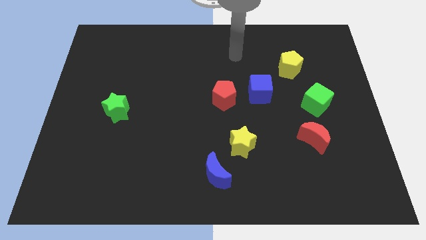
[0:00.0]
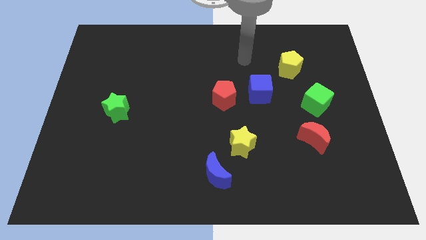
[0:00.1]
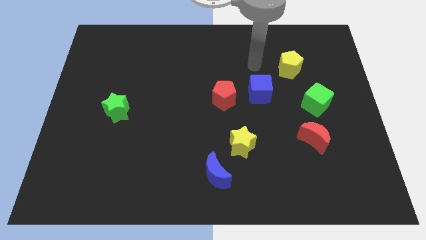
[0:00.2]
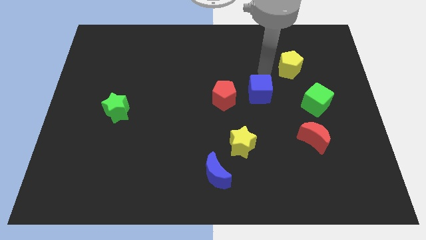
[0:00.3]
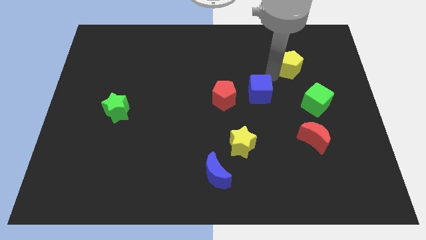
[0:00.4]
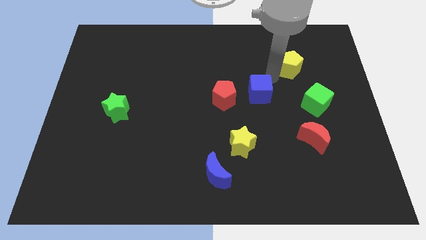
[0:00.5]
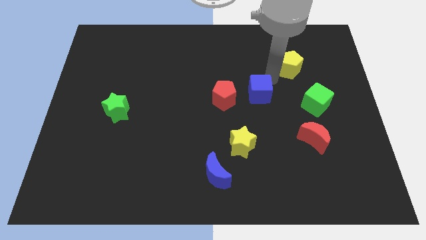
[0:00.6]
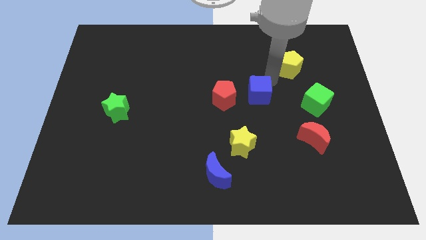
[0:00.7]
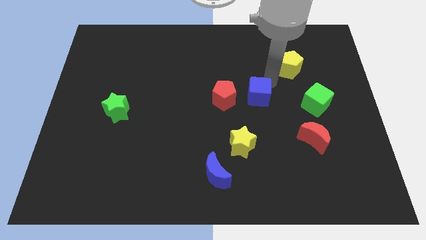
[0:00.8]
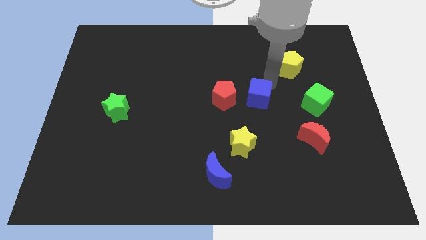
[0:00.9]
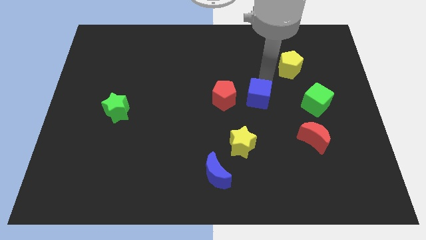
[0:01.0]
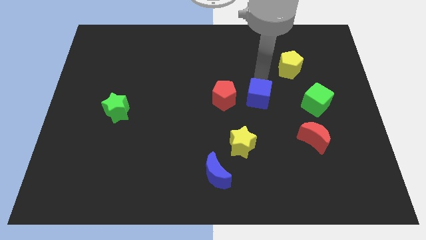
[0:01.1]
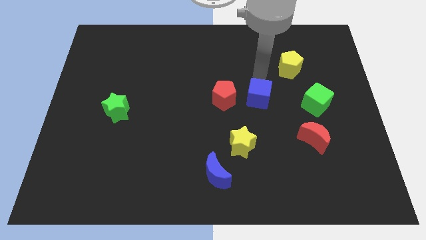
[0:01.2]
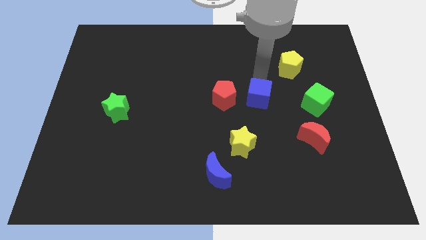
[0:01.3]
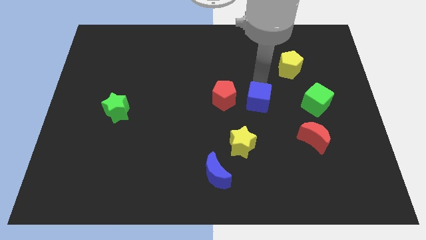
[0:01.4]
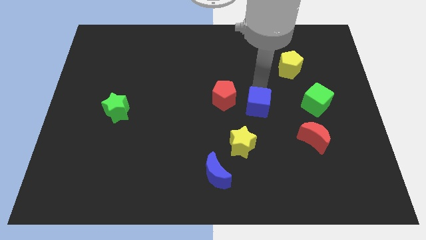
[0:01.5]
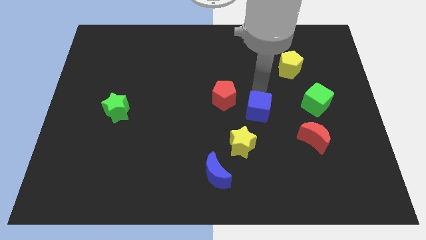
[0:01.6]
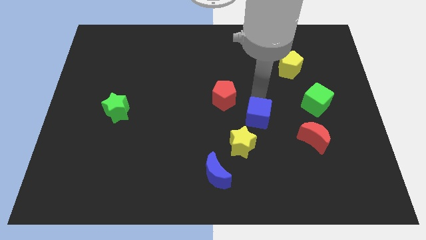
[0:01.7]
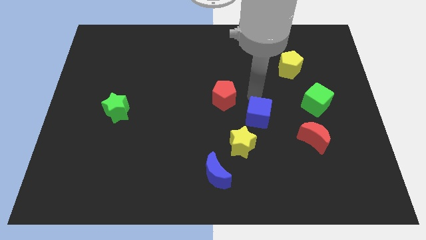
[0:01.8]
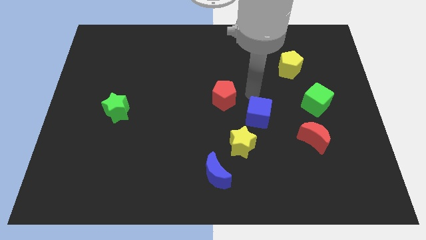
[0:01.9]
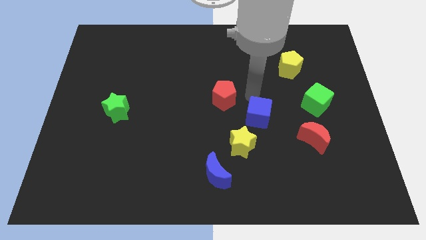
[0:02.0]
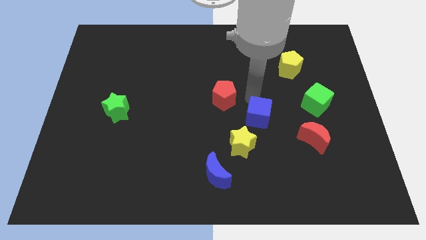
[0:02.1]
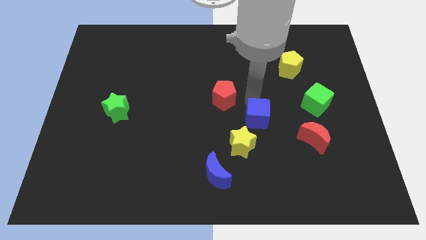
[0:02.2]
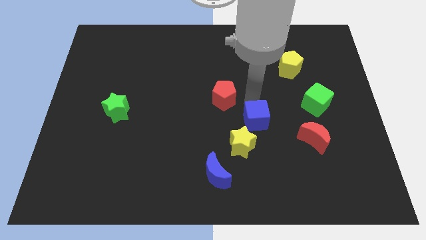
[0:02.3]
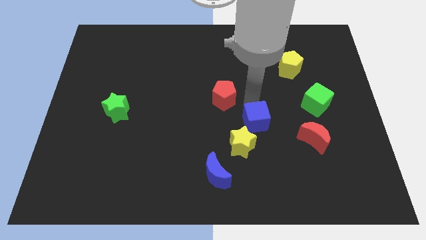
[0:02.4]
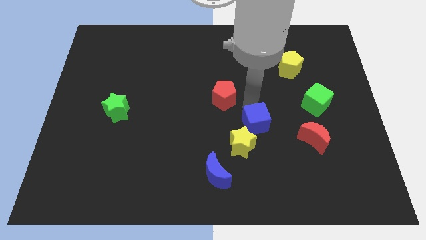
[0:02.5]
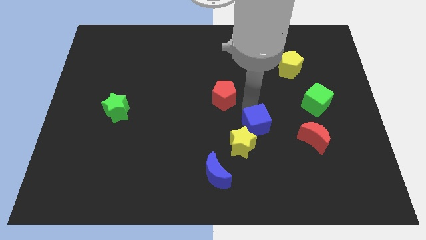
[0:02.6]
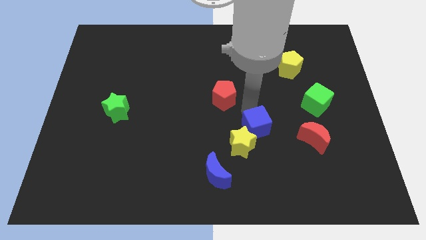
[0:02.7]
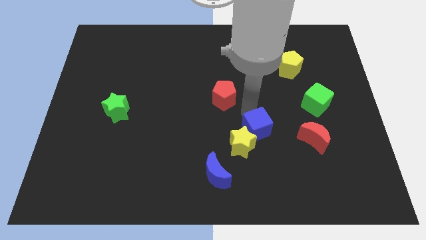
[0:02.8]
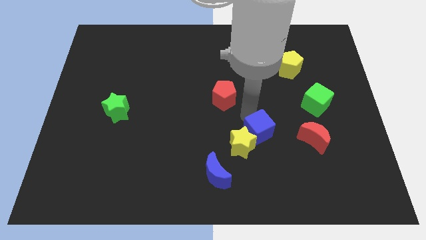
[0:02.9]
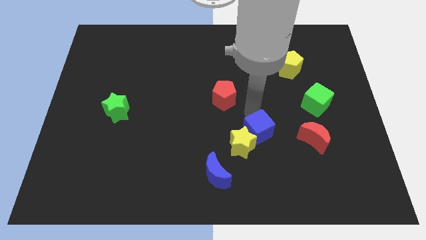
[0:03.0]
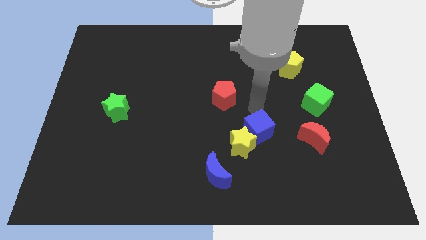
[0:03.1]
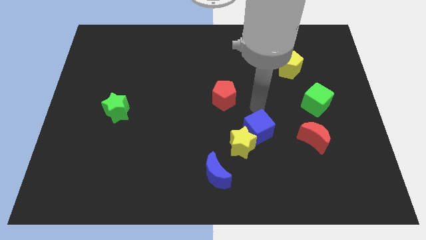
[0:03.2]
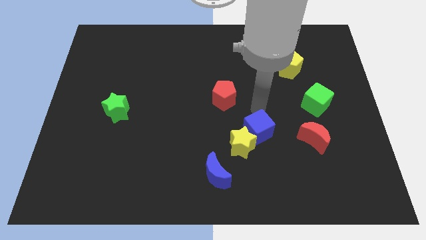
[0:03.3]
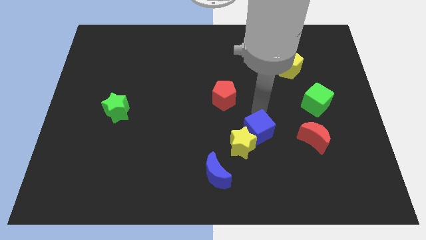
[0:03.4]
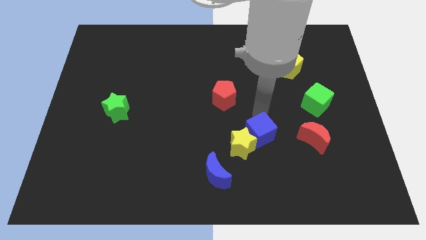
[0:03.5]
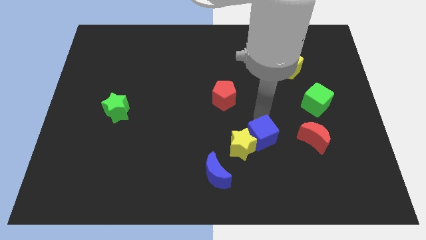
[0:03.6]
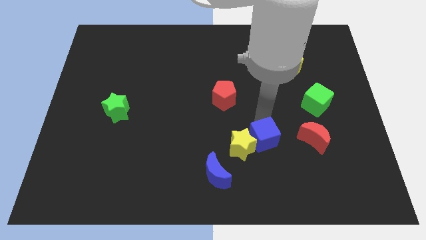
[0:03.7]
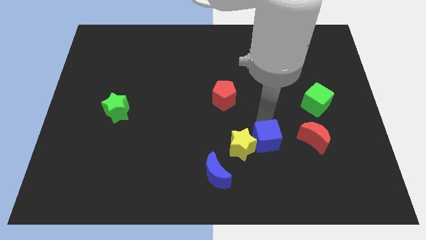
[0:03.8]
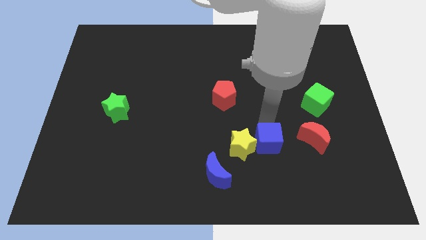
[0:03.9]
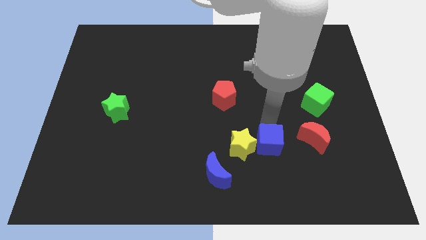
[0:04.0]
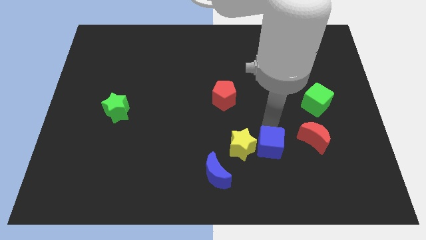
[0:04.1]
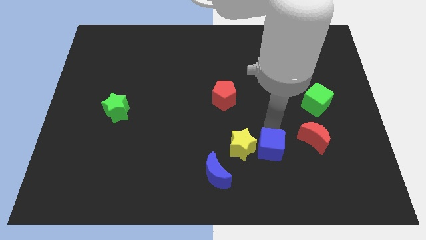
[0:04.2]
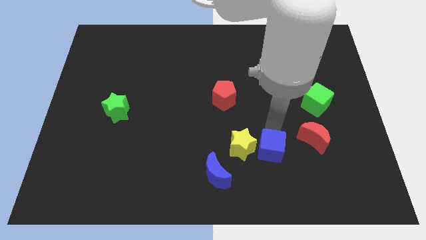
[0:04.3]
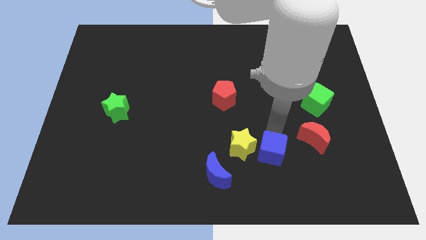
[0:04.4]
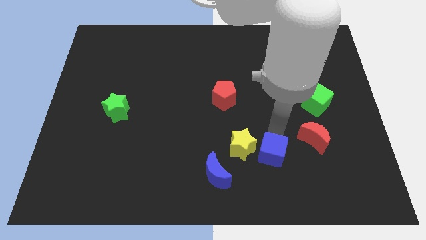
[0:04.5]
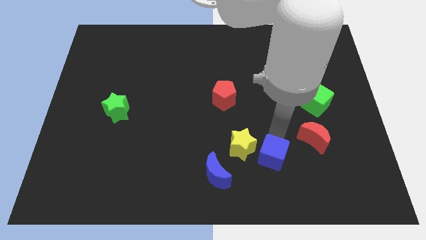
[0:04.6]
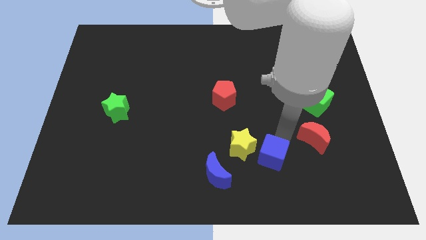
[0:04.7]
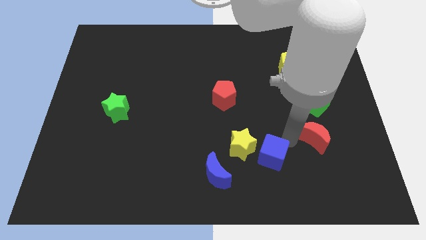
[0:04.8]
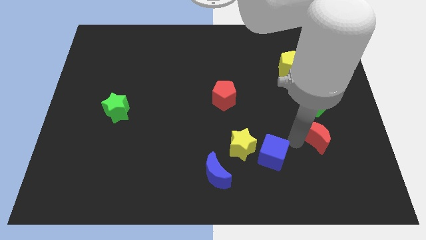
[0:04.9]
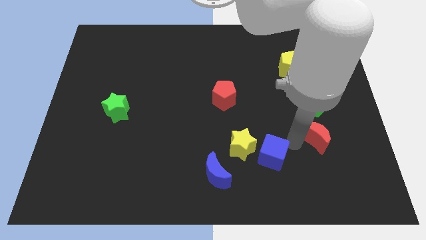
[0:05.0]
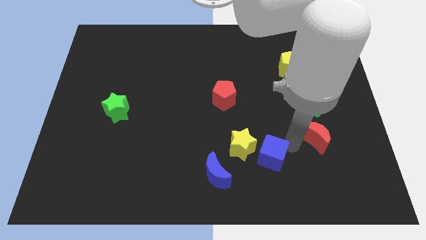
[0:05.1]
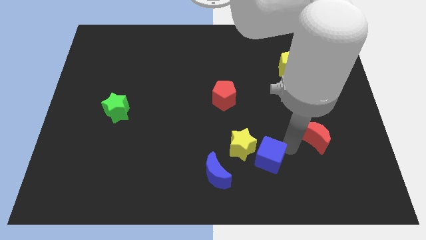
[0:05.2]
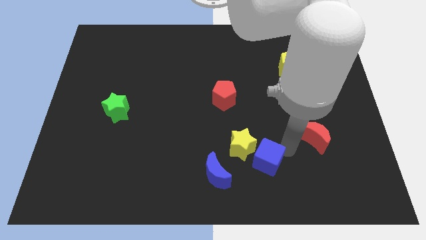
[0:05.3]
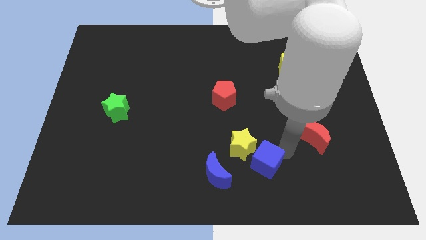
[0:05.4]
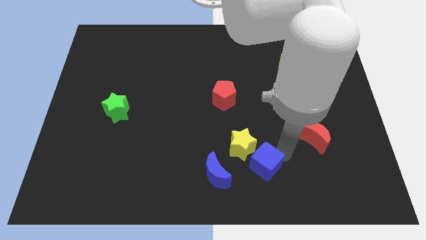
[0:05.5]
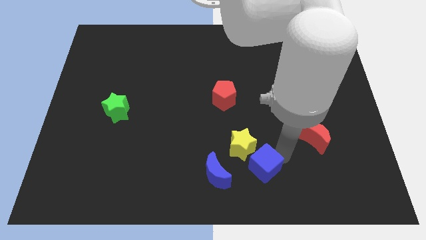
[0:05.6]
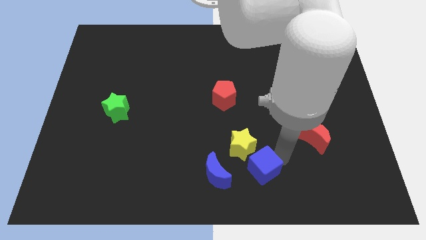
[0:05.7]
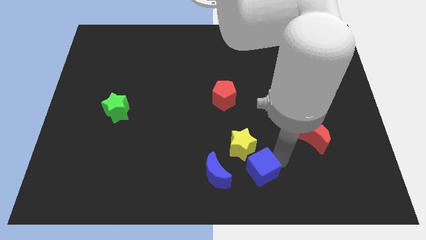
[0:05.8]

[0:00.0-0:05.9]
put the blue cube to the bottom side

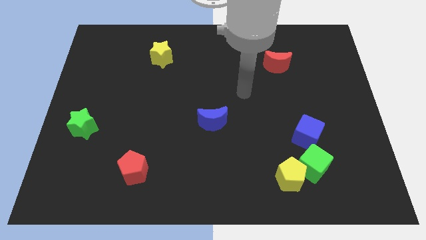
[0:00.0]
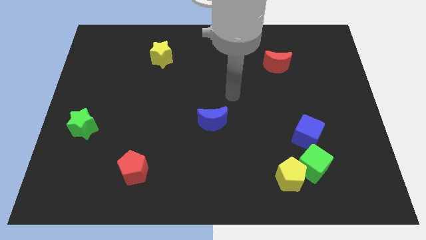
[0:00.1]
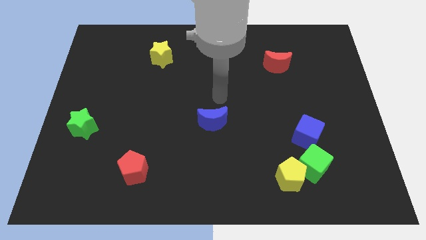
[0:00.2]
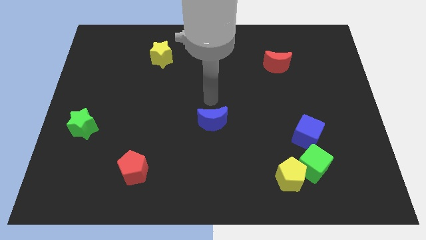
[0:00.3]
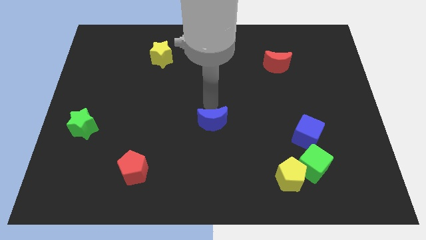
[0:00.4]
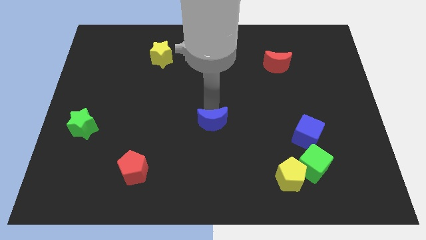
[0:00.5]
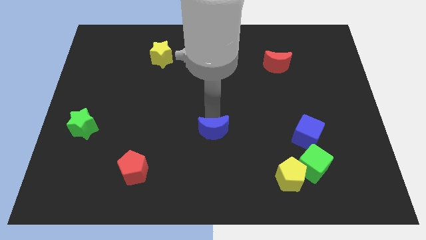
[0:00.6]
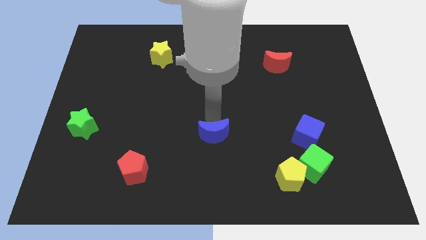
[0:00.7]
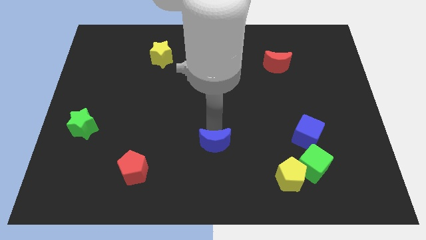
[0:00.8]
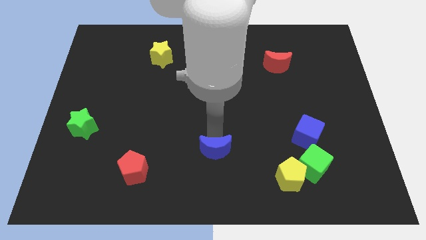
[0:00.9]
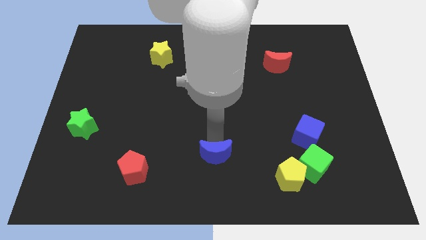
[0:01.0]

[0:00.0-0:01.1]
move the blue moon to the bottom side

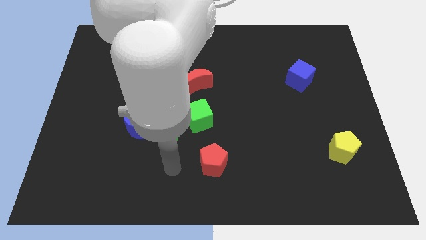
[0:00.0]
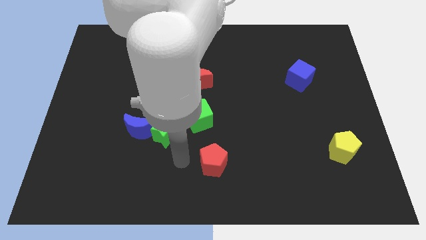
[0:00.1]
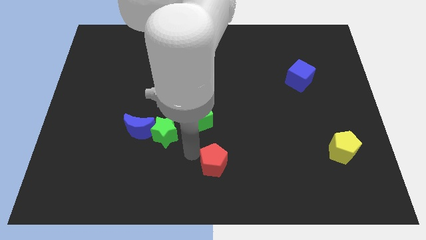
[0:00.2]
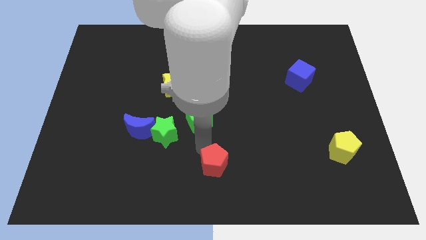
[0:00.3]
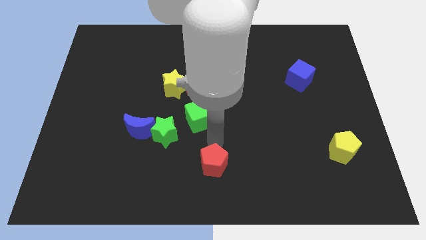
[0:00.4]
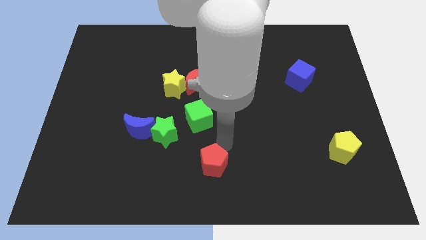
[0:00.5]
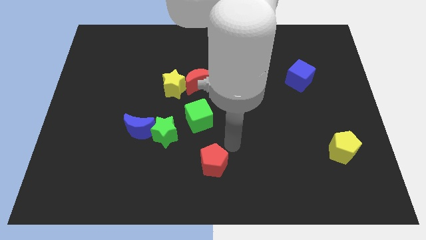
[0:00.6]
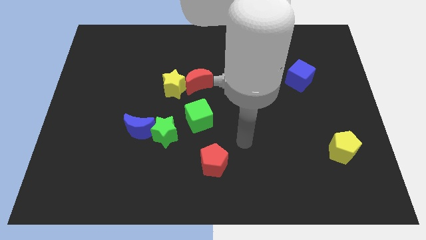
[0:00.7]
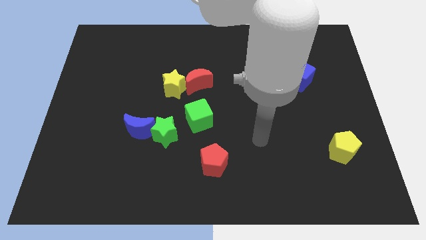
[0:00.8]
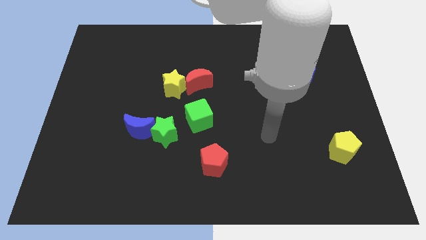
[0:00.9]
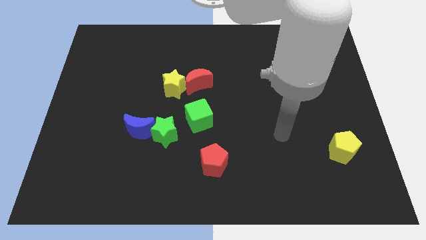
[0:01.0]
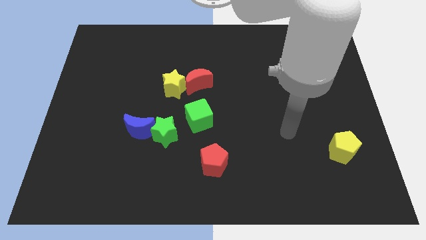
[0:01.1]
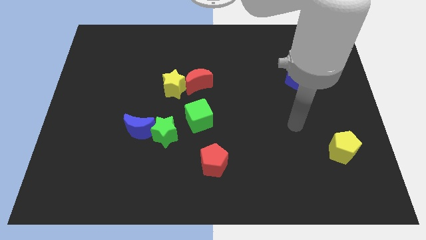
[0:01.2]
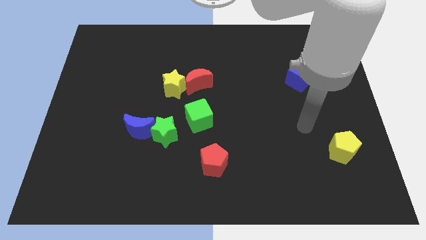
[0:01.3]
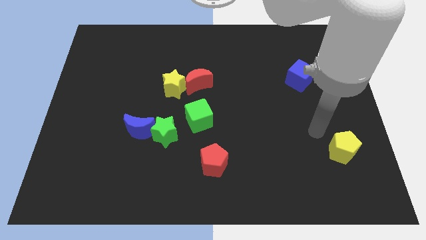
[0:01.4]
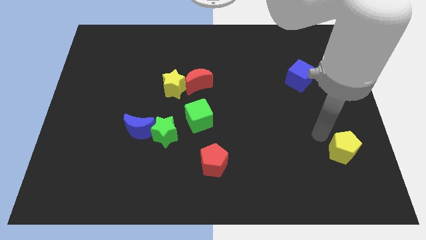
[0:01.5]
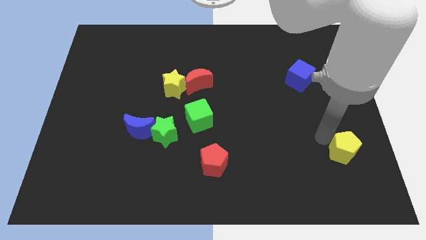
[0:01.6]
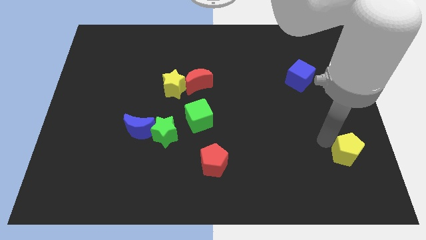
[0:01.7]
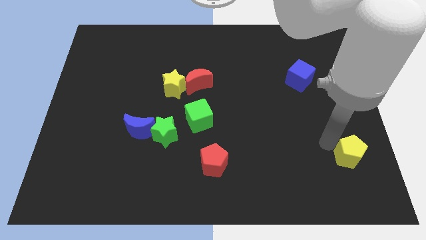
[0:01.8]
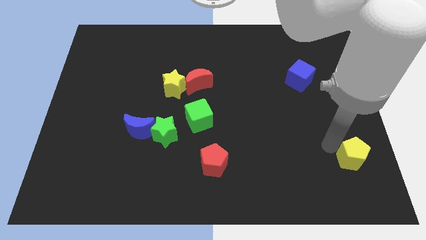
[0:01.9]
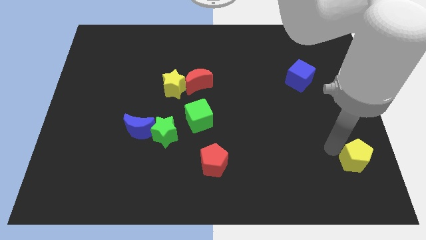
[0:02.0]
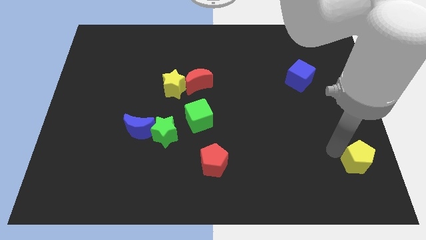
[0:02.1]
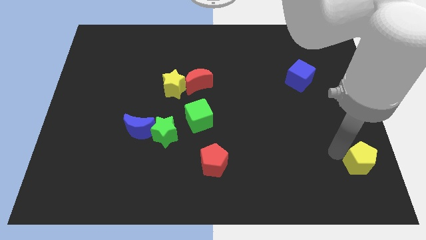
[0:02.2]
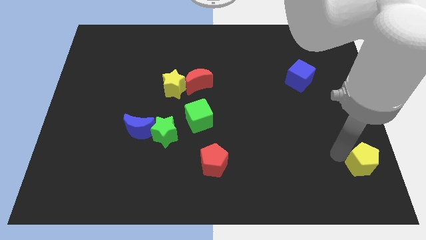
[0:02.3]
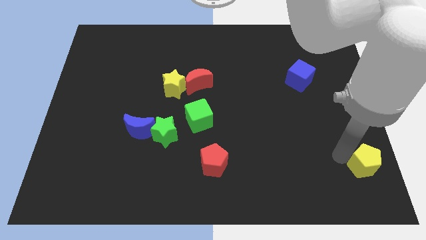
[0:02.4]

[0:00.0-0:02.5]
put the yellow pentagon to the bottom right of the board
